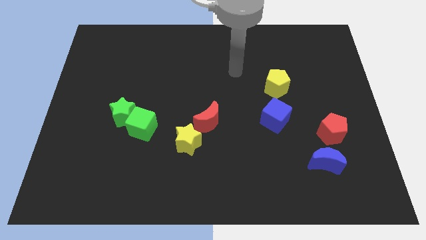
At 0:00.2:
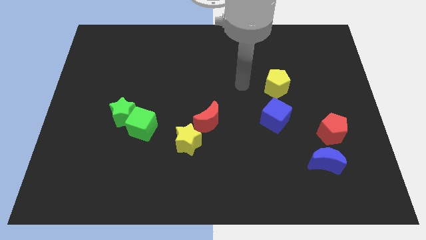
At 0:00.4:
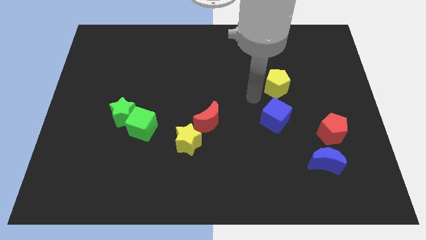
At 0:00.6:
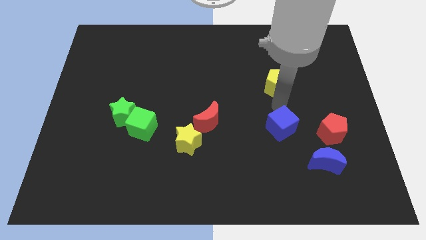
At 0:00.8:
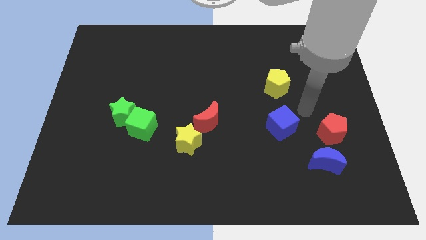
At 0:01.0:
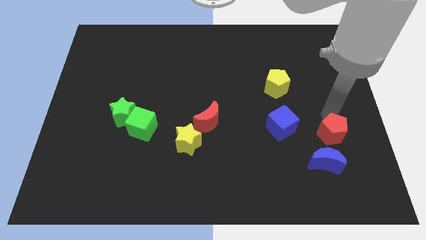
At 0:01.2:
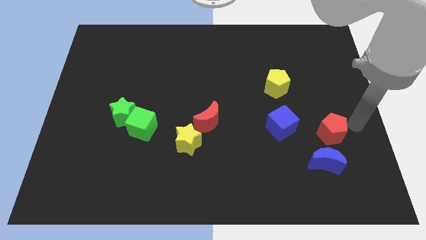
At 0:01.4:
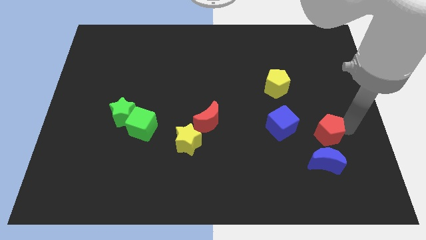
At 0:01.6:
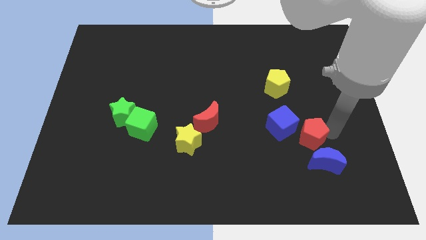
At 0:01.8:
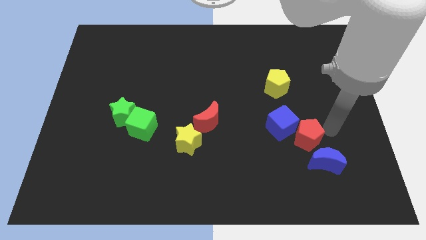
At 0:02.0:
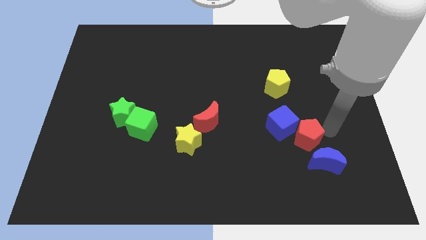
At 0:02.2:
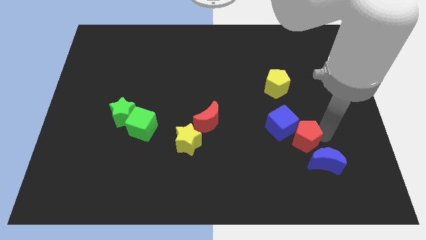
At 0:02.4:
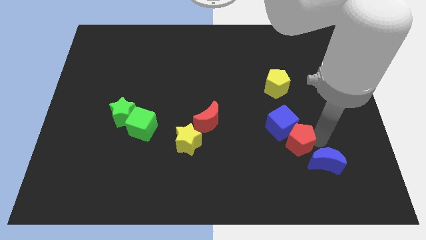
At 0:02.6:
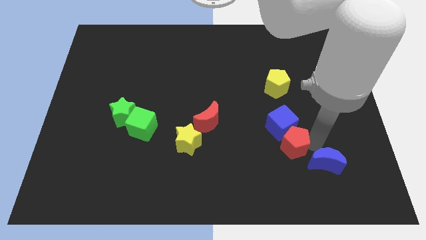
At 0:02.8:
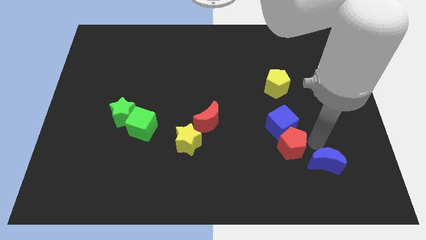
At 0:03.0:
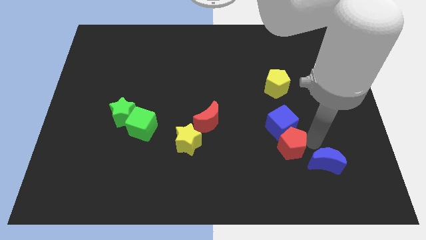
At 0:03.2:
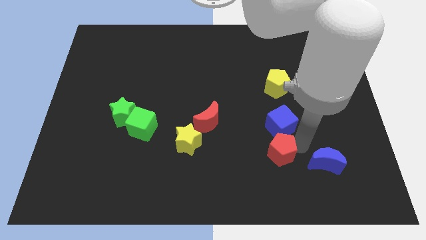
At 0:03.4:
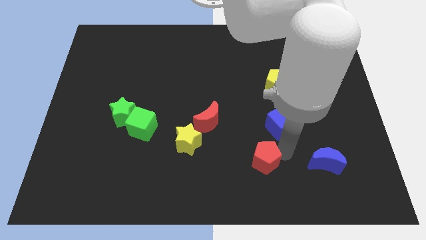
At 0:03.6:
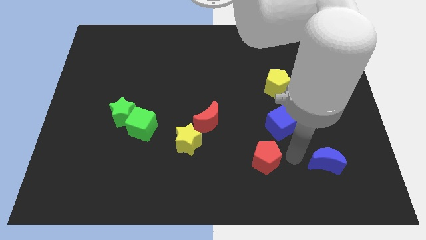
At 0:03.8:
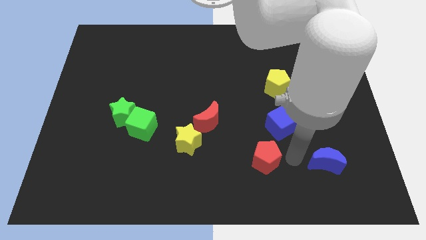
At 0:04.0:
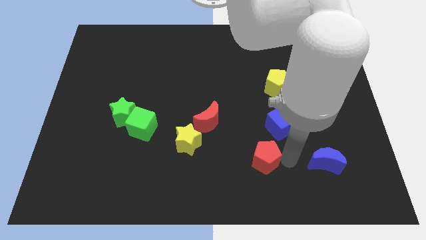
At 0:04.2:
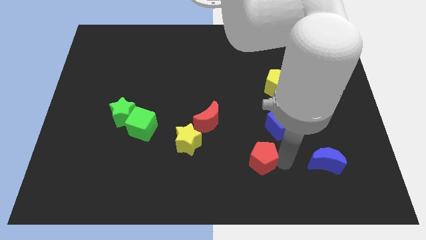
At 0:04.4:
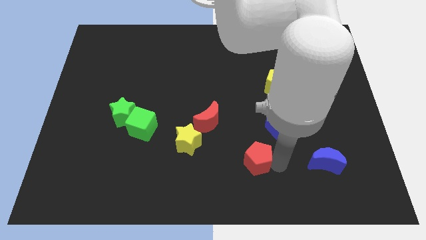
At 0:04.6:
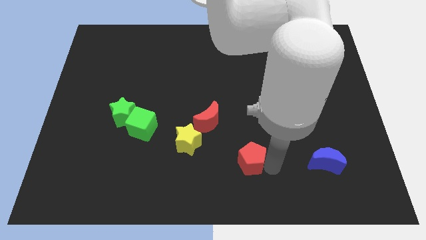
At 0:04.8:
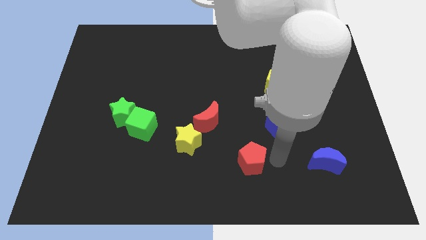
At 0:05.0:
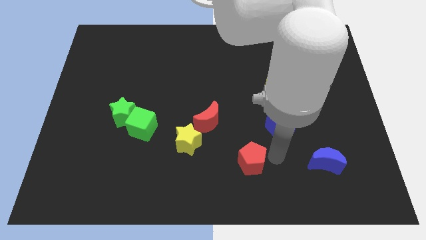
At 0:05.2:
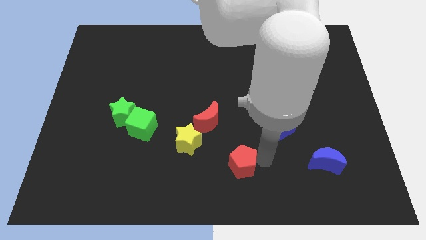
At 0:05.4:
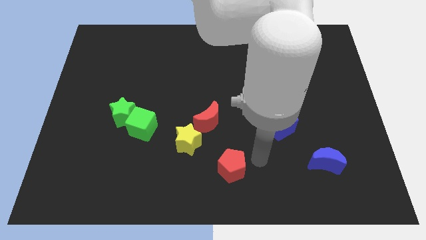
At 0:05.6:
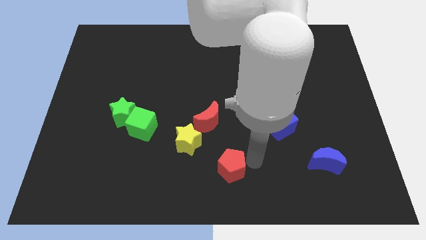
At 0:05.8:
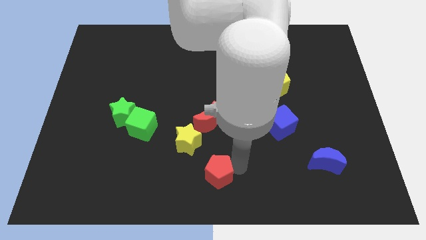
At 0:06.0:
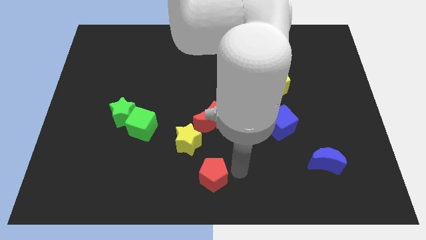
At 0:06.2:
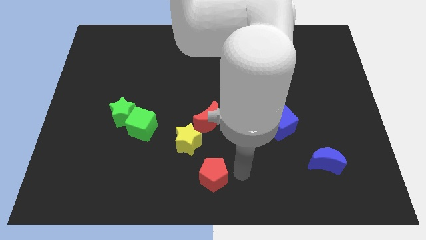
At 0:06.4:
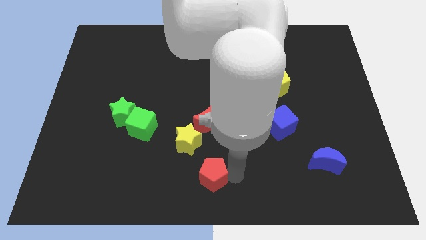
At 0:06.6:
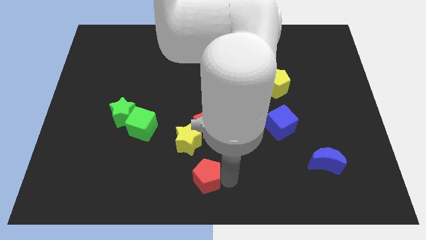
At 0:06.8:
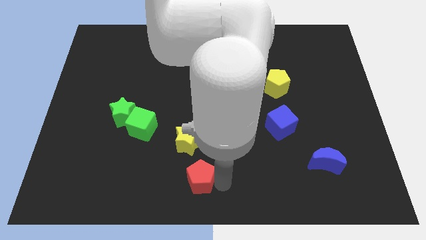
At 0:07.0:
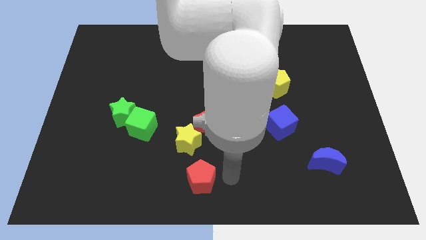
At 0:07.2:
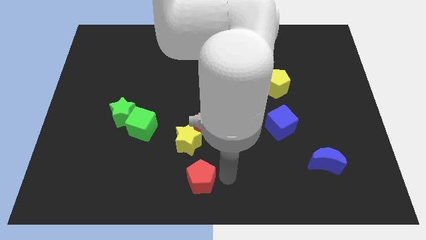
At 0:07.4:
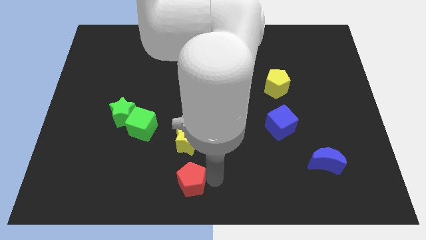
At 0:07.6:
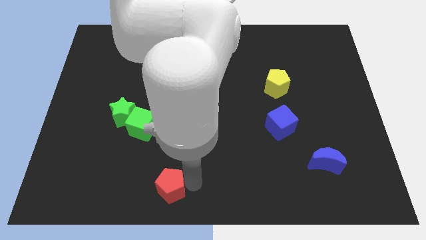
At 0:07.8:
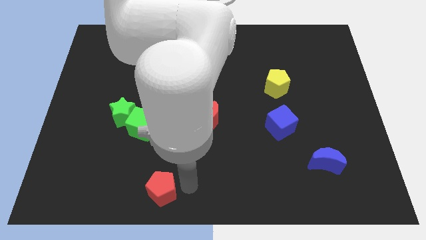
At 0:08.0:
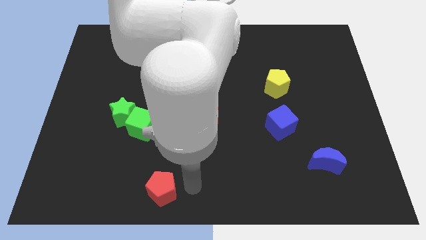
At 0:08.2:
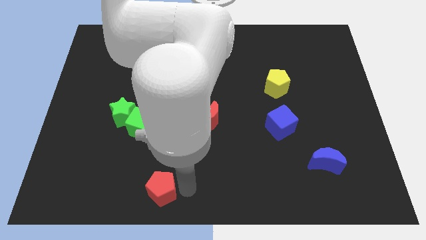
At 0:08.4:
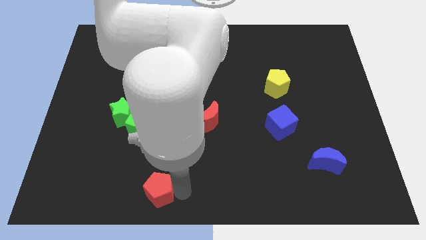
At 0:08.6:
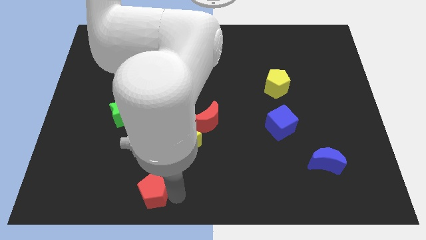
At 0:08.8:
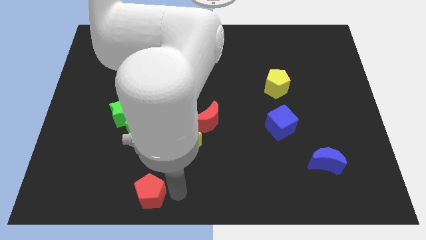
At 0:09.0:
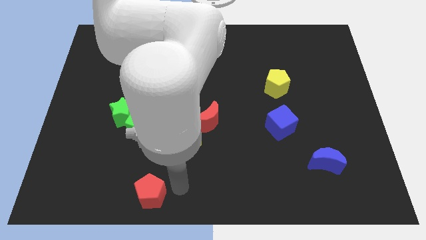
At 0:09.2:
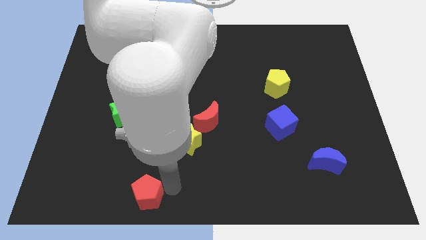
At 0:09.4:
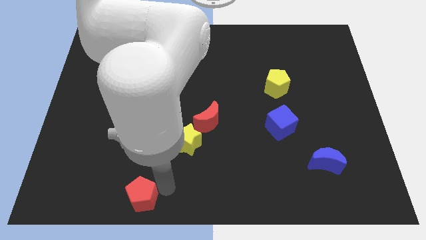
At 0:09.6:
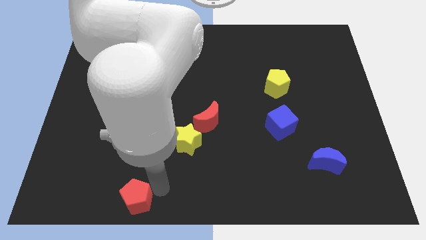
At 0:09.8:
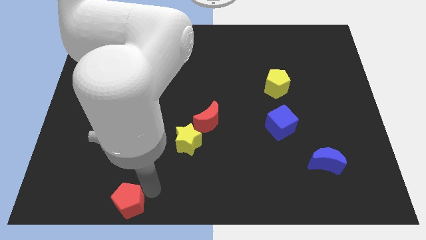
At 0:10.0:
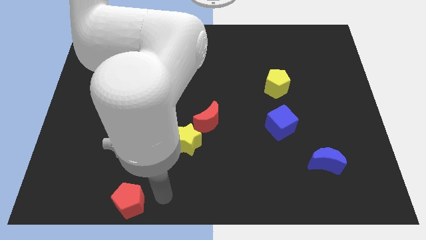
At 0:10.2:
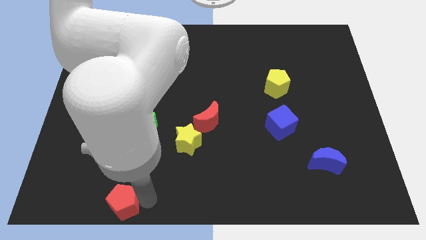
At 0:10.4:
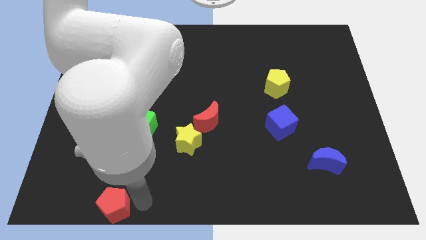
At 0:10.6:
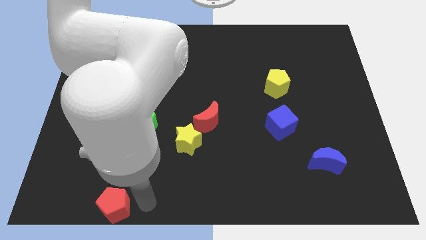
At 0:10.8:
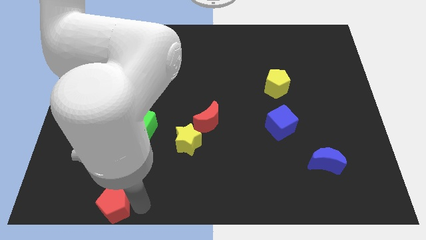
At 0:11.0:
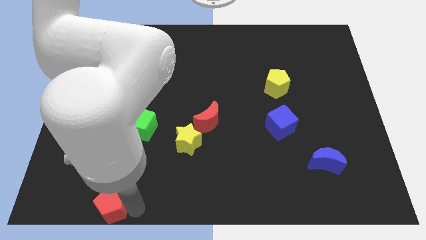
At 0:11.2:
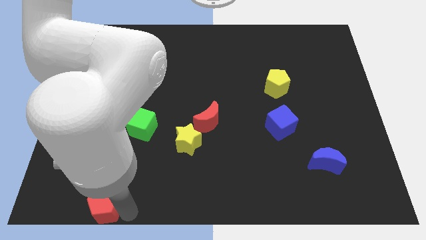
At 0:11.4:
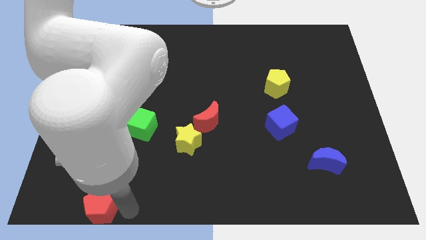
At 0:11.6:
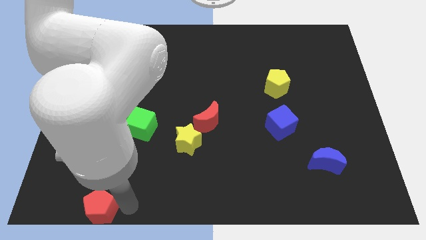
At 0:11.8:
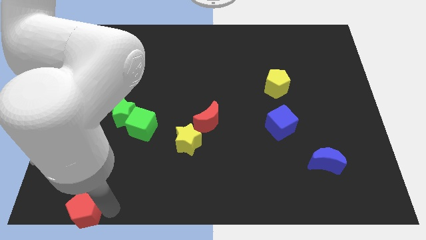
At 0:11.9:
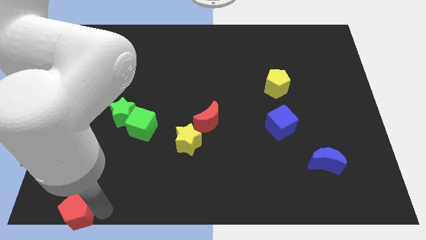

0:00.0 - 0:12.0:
move the red pentagon to the bottom left corner

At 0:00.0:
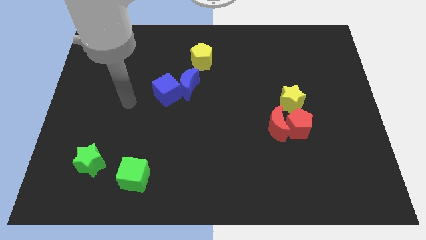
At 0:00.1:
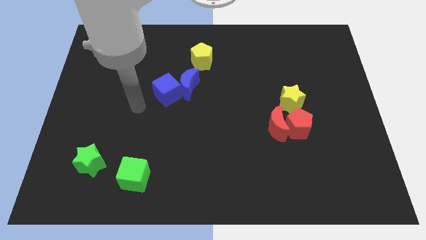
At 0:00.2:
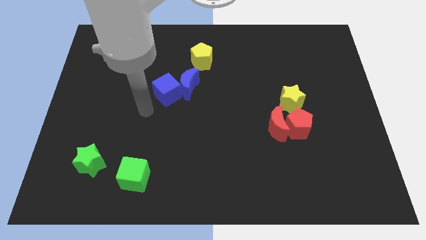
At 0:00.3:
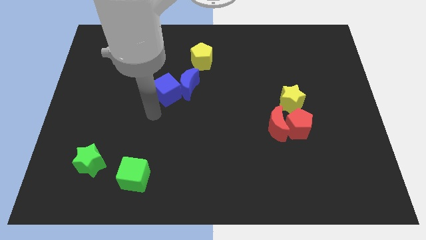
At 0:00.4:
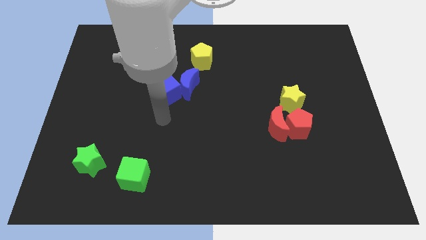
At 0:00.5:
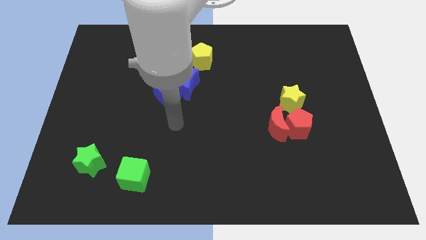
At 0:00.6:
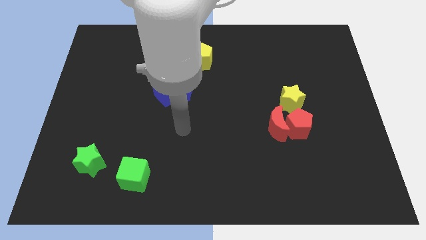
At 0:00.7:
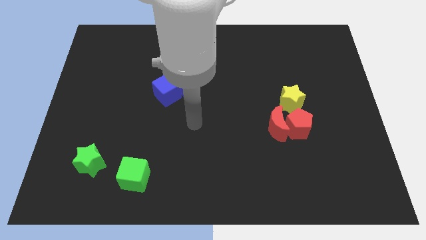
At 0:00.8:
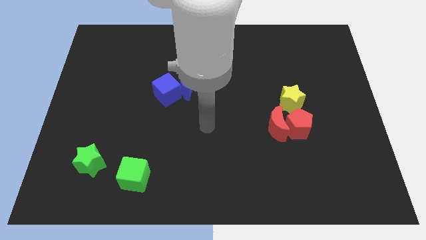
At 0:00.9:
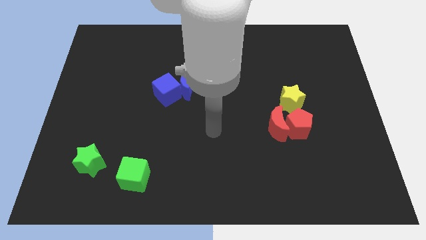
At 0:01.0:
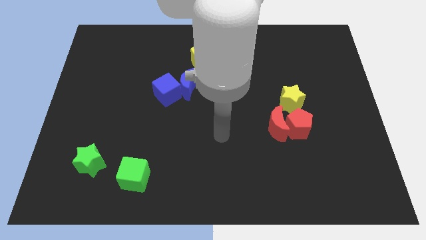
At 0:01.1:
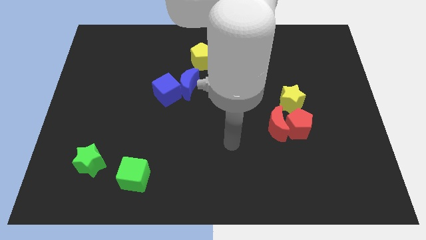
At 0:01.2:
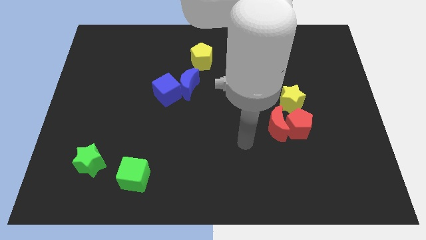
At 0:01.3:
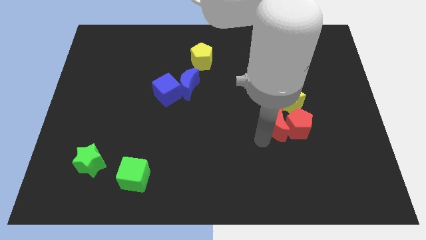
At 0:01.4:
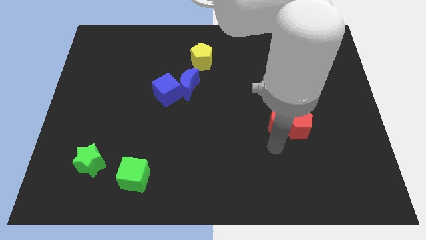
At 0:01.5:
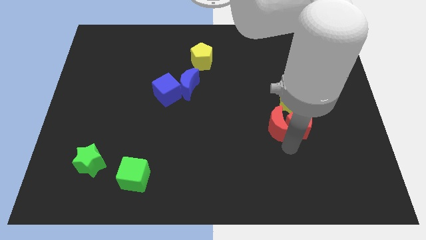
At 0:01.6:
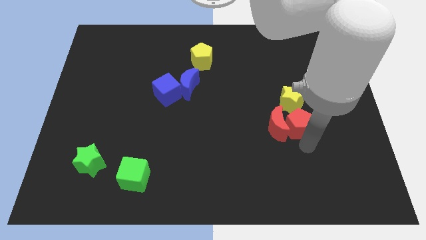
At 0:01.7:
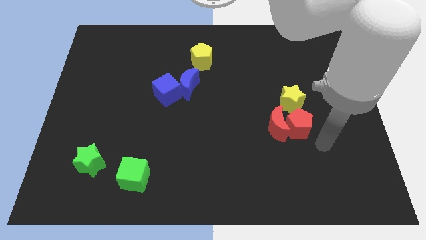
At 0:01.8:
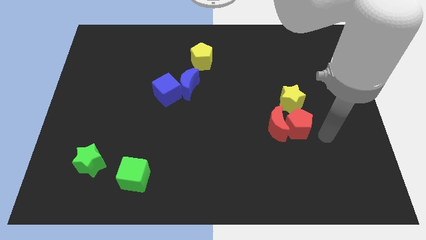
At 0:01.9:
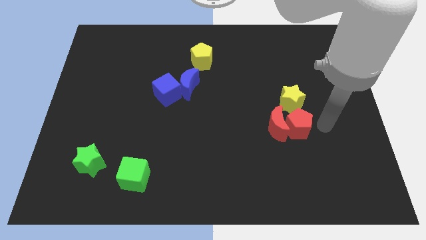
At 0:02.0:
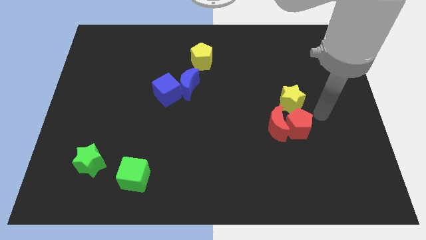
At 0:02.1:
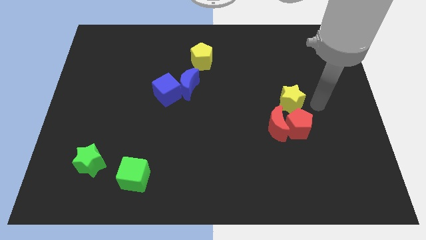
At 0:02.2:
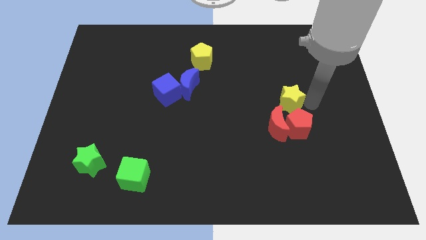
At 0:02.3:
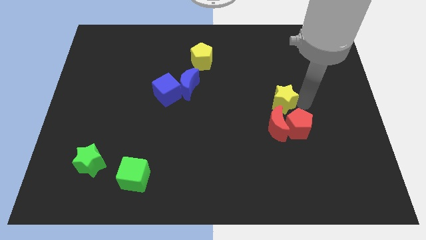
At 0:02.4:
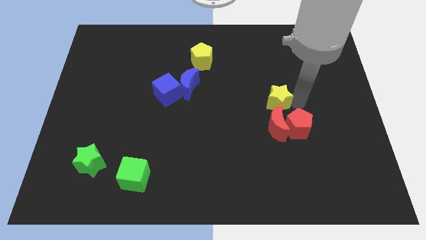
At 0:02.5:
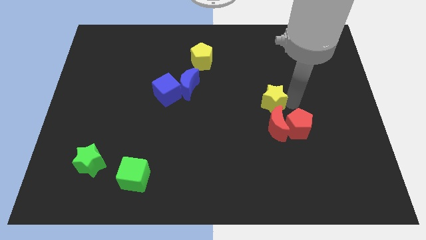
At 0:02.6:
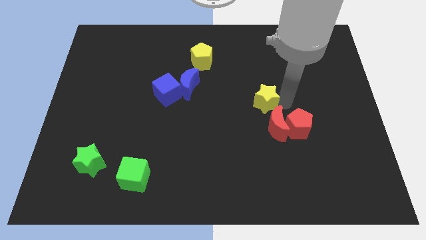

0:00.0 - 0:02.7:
slide the yellow star to the center of the board
